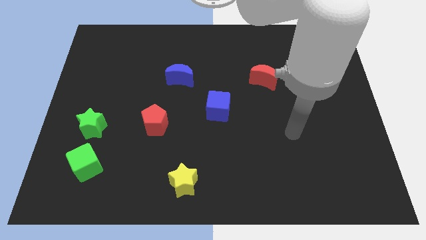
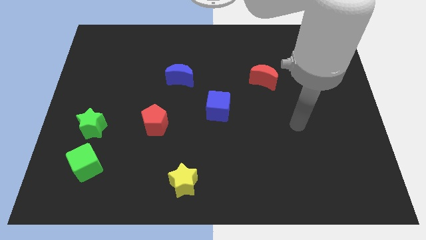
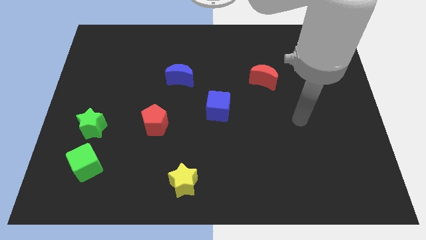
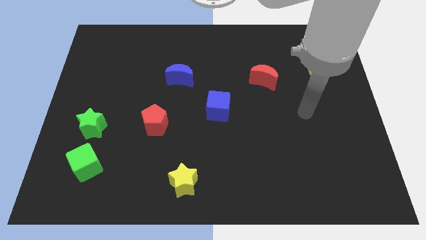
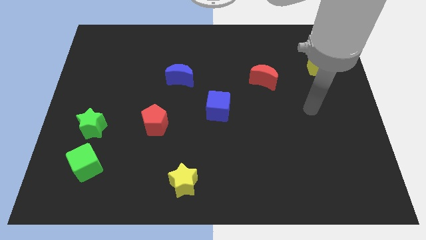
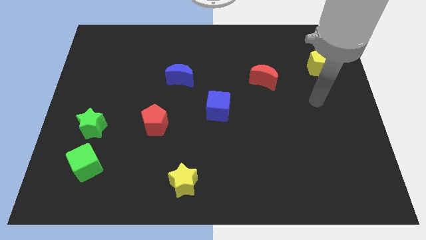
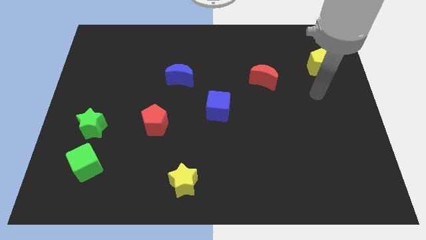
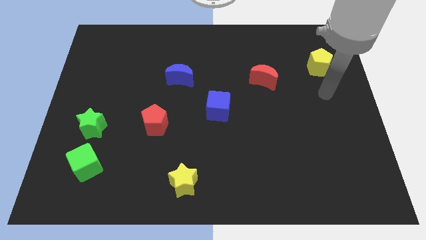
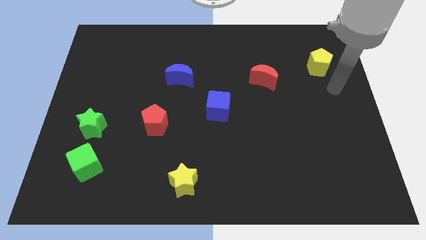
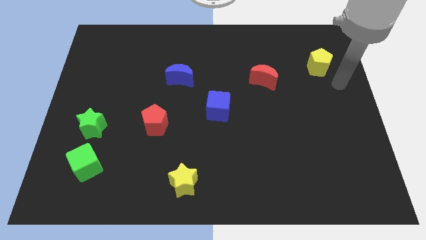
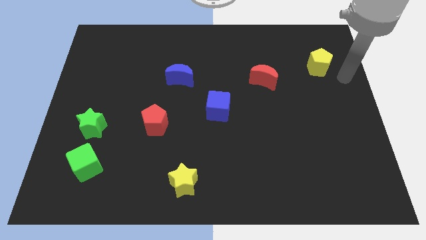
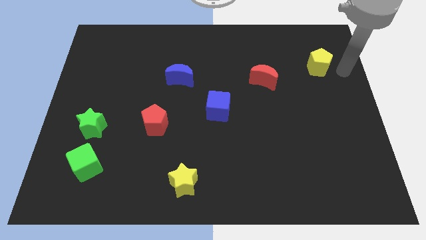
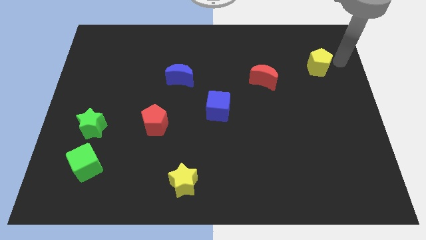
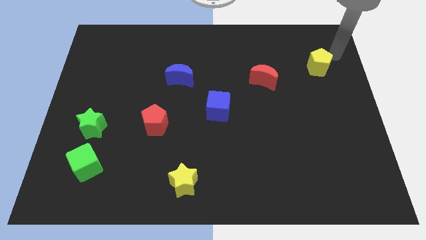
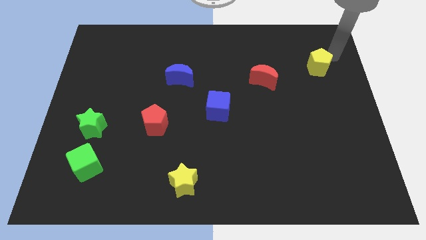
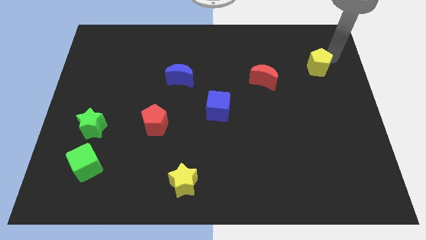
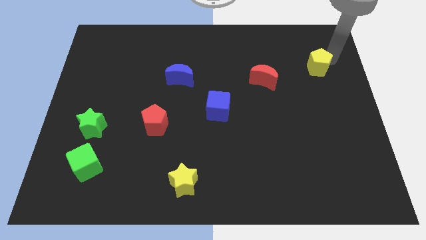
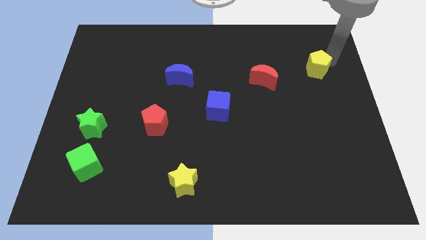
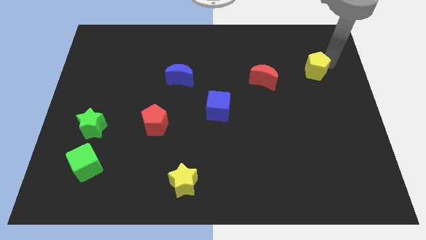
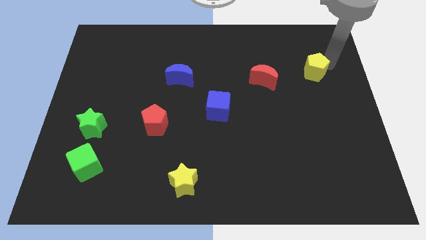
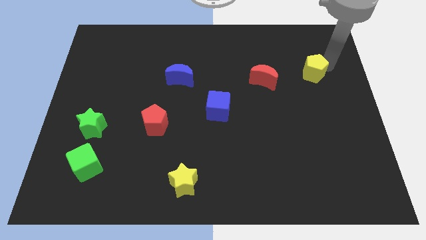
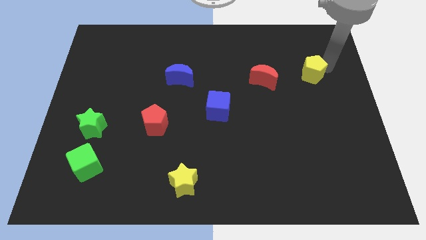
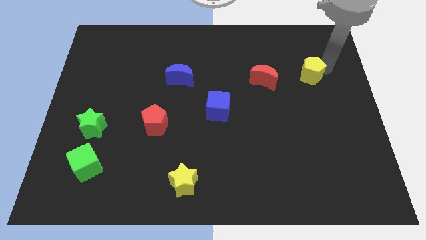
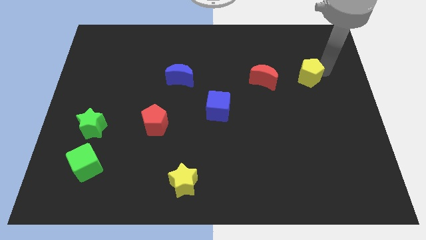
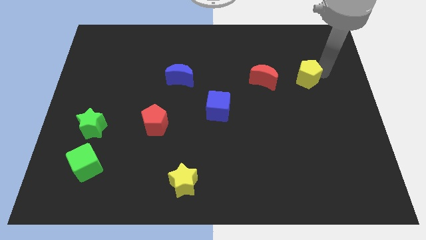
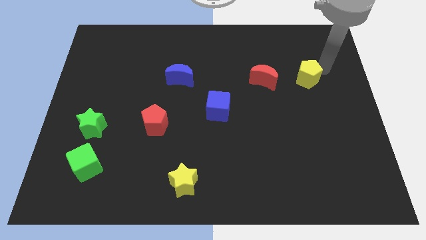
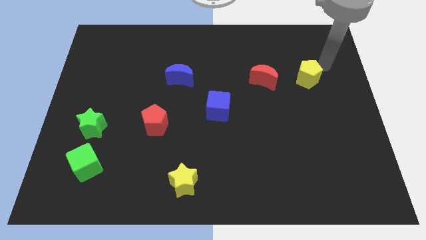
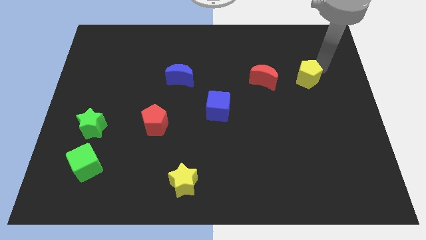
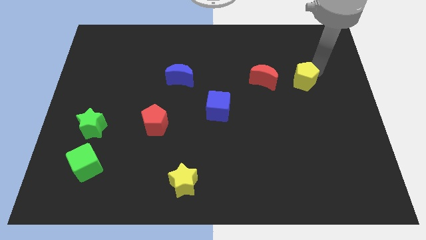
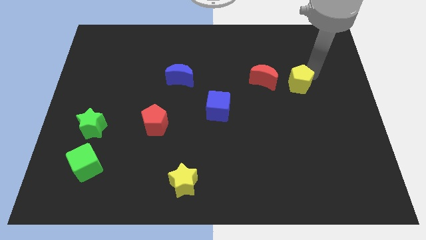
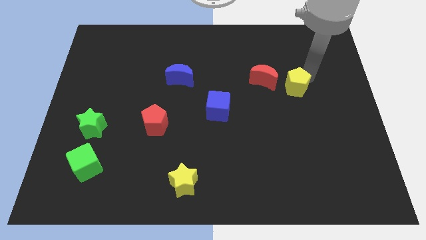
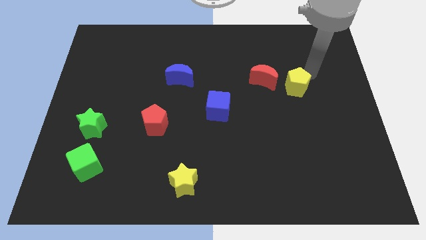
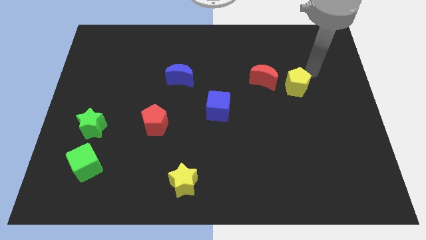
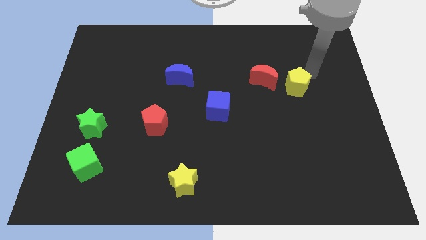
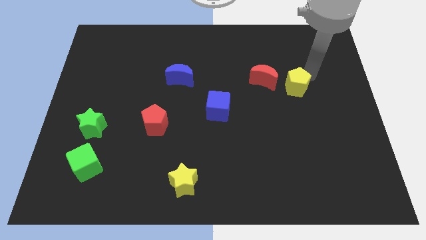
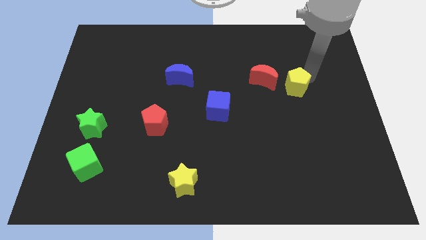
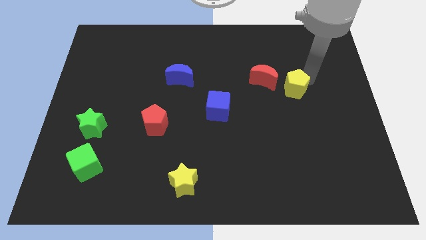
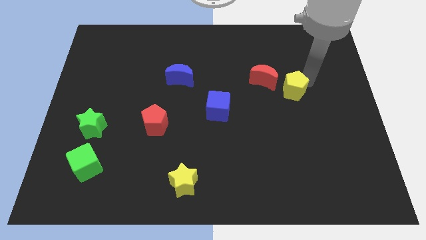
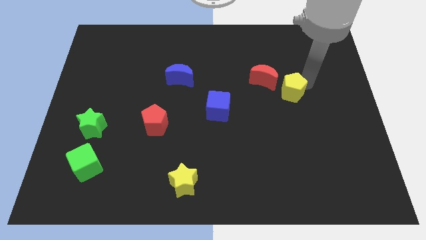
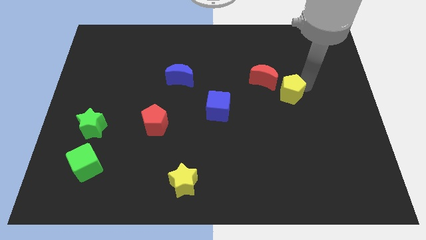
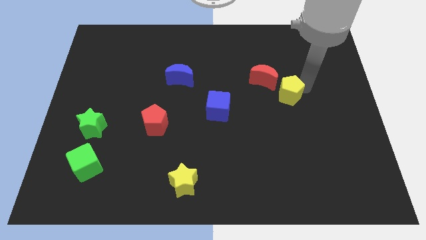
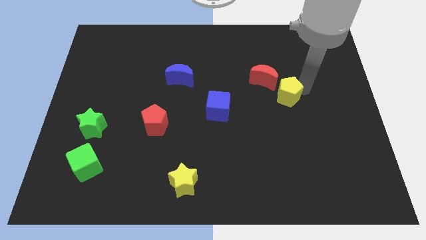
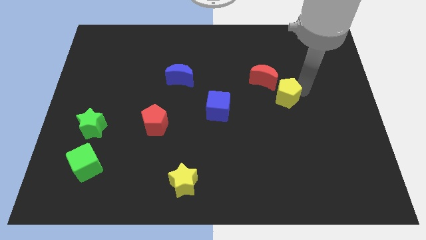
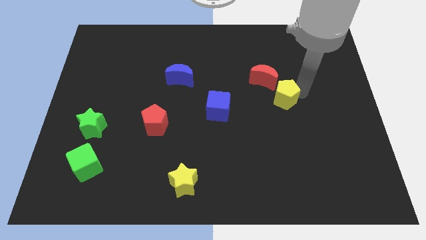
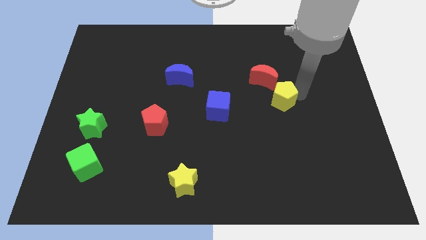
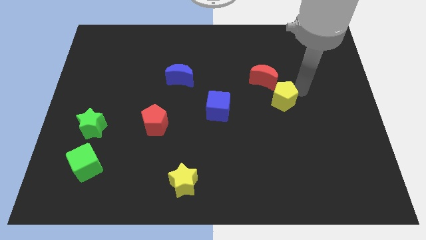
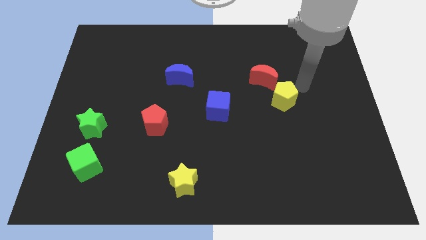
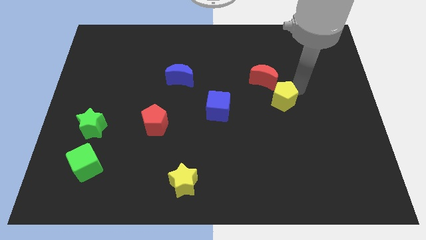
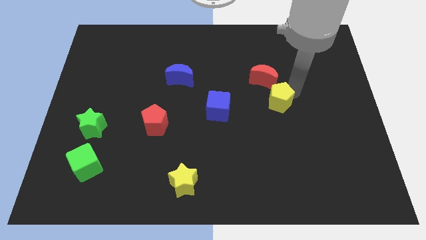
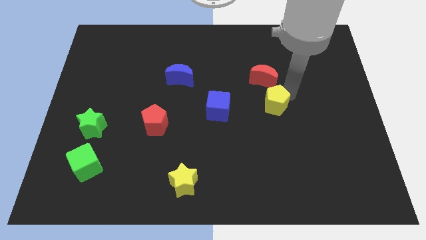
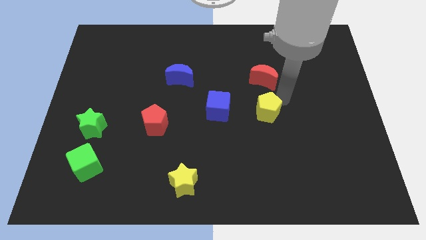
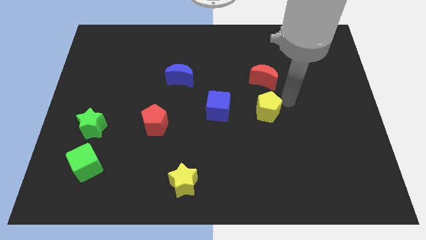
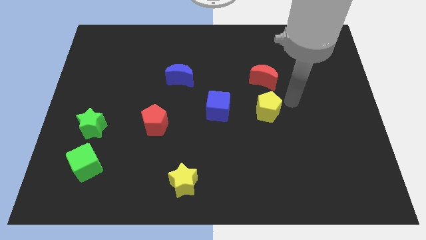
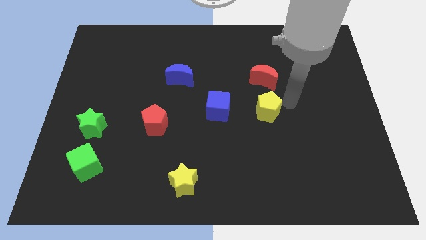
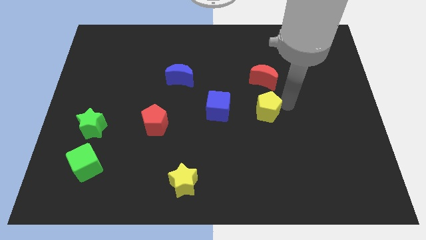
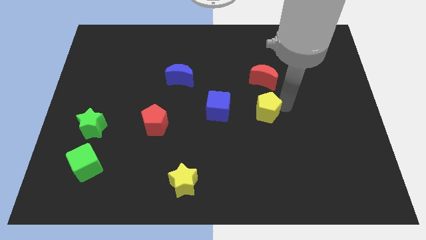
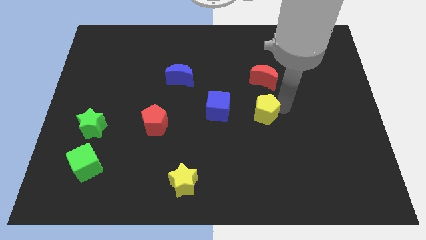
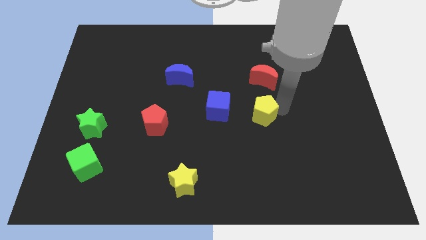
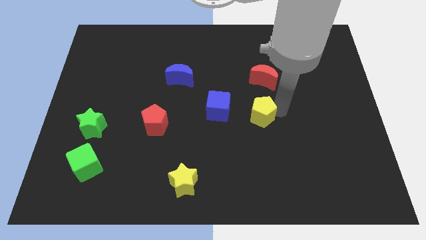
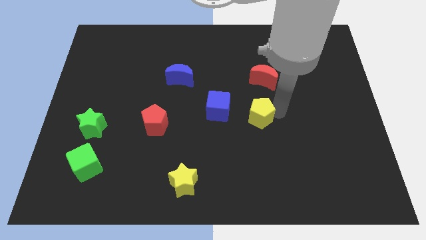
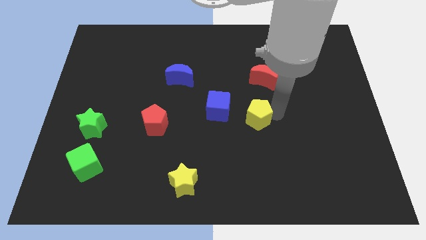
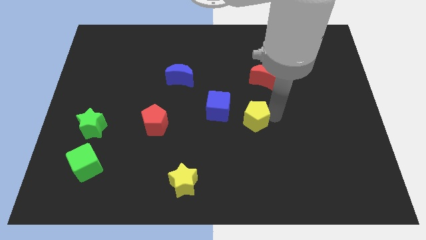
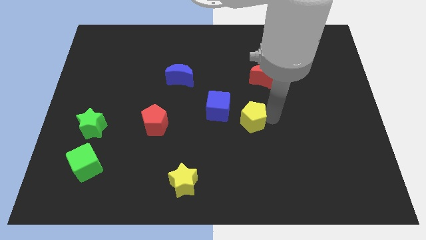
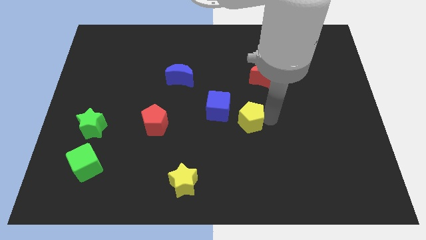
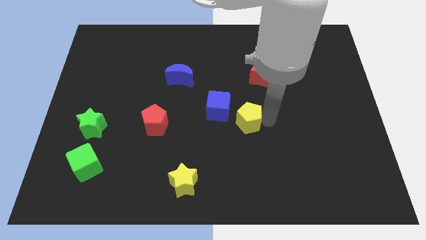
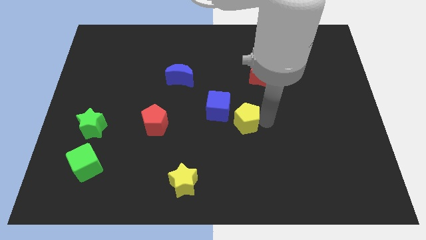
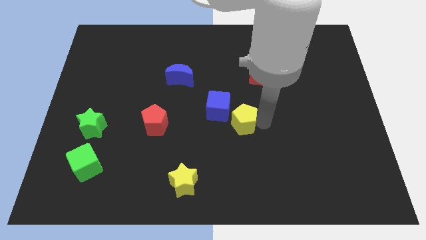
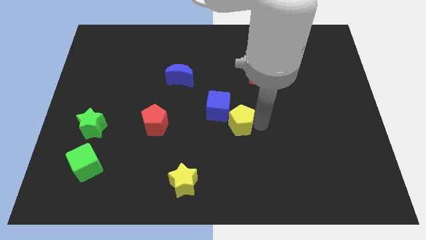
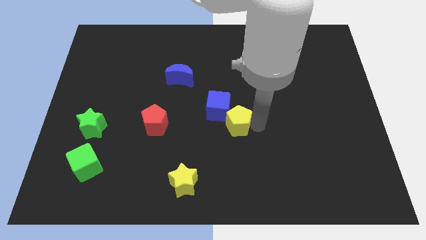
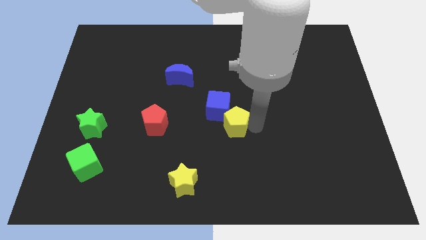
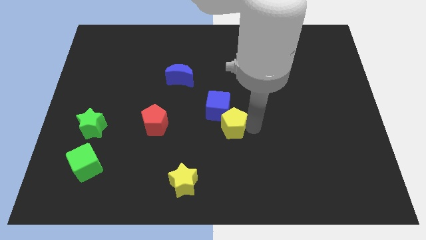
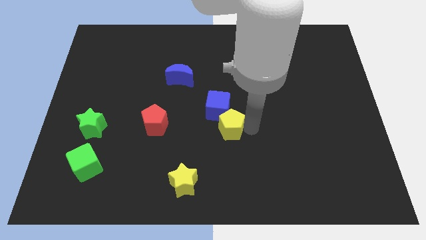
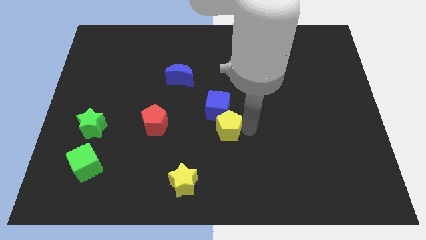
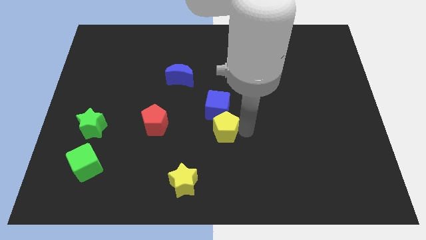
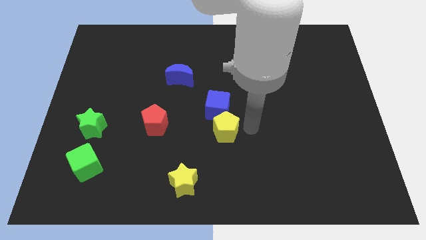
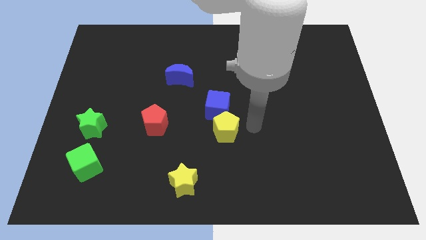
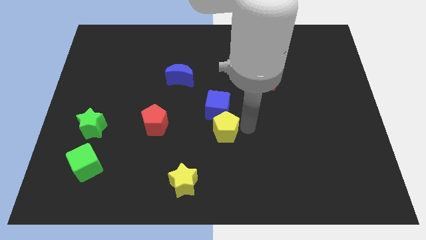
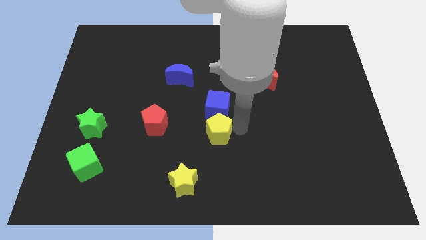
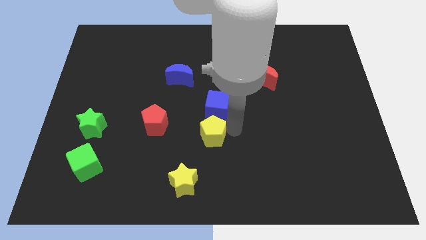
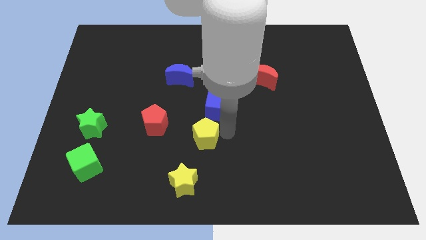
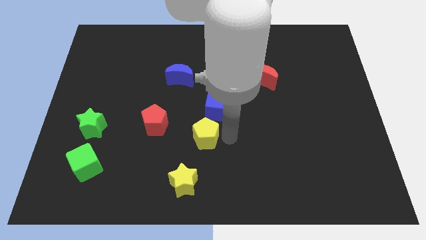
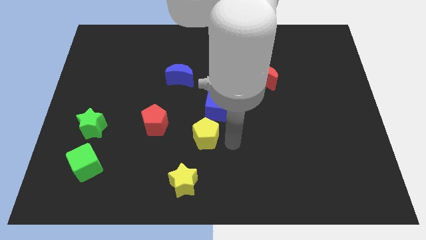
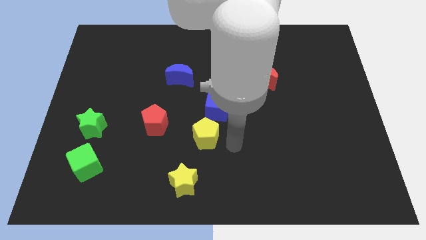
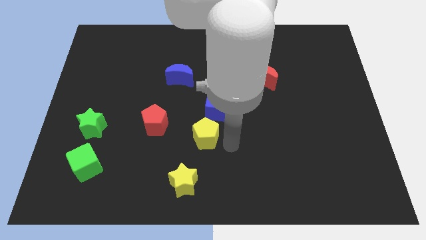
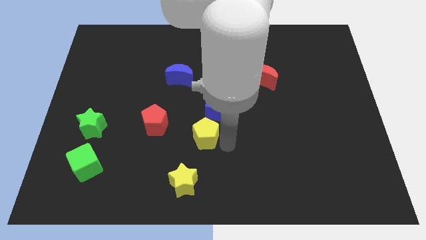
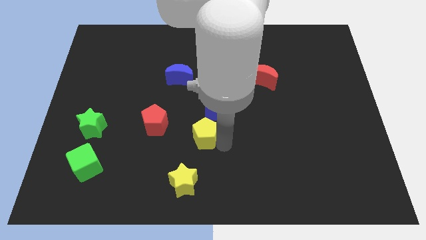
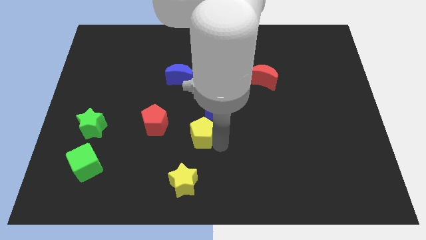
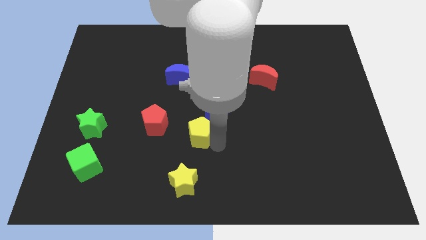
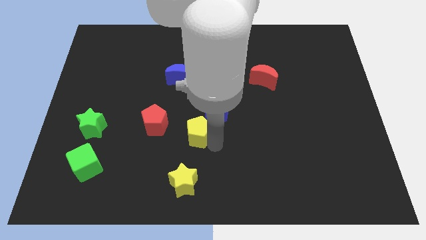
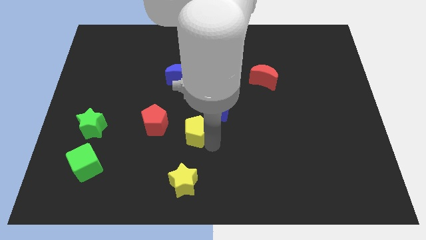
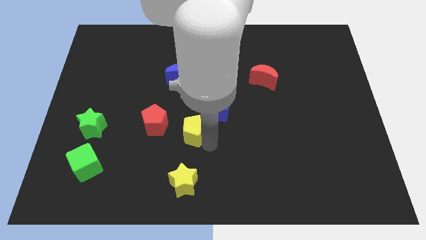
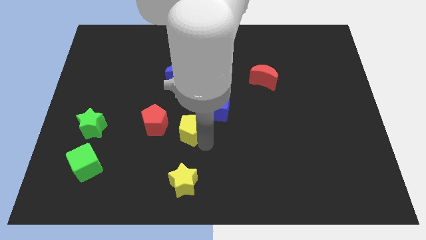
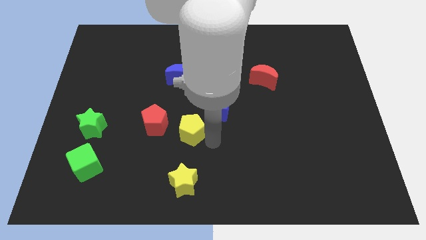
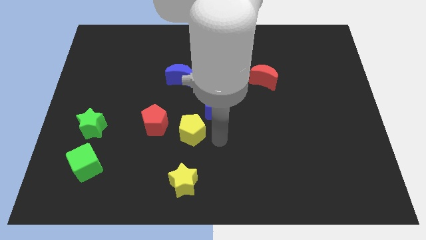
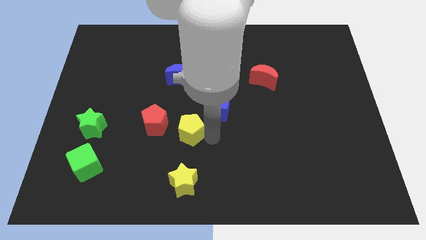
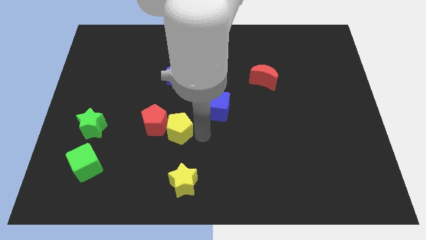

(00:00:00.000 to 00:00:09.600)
push the yellow pentagon close to the red pentagon
